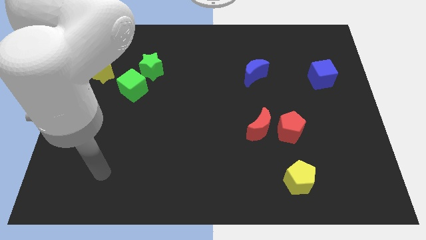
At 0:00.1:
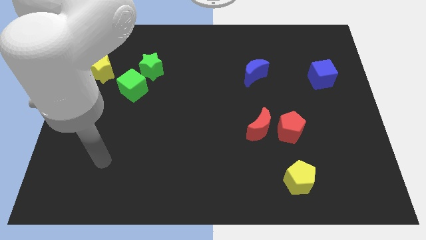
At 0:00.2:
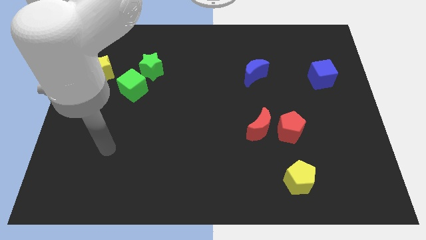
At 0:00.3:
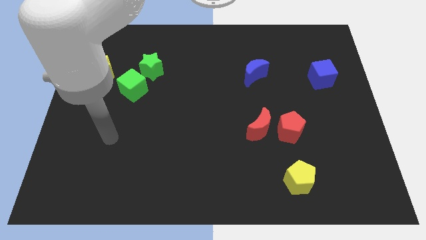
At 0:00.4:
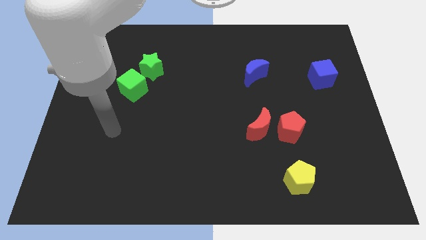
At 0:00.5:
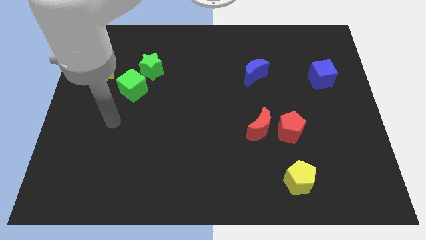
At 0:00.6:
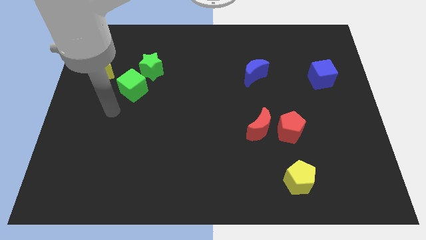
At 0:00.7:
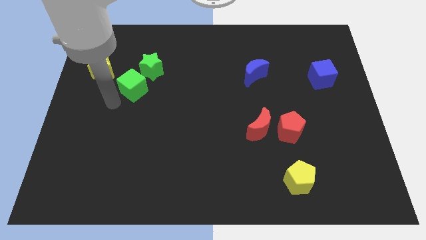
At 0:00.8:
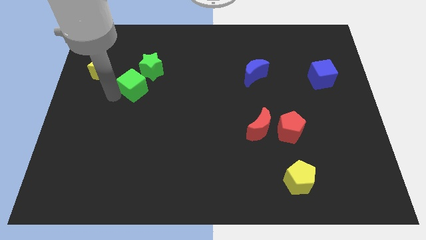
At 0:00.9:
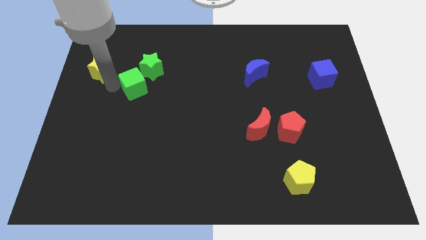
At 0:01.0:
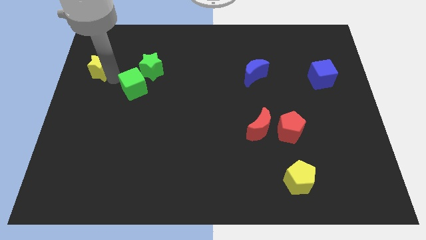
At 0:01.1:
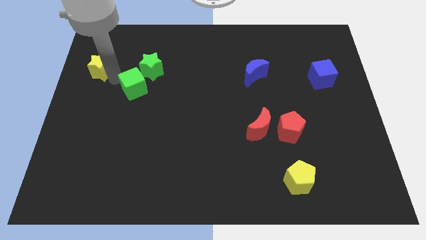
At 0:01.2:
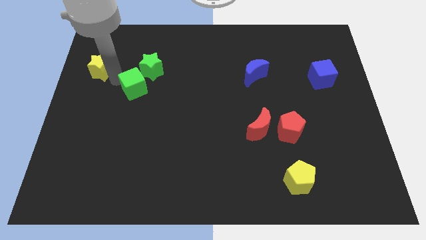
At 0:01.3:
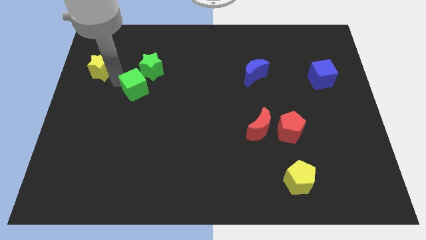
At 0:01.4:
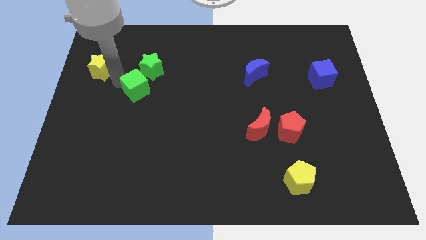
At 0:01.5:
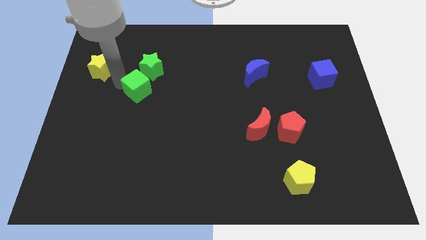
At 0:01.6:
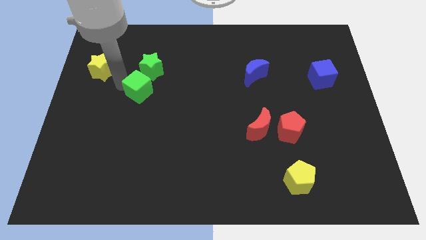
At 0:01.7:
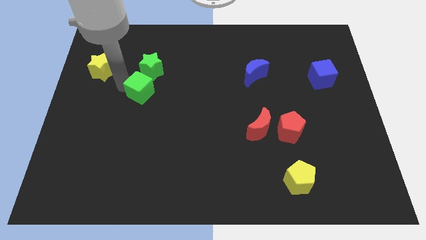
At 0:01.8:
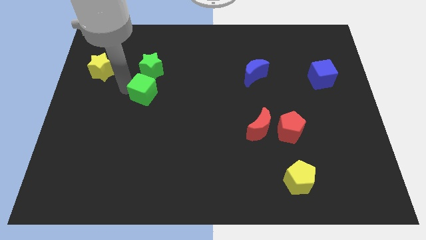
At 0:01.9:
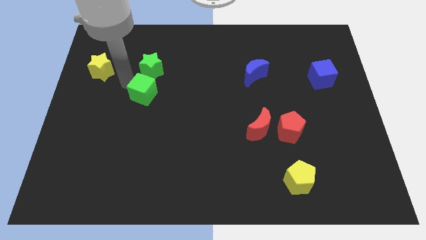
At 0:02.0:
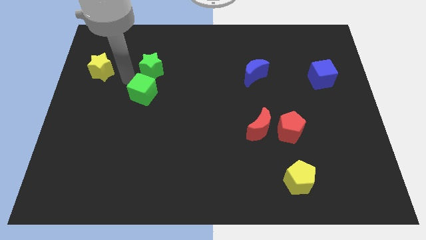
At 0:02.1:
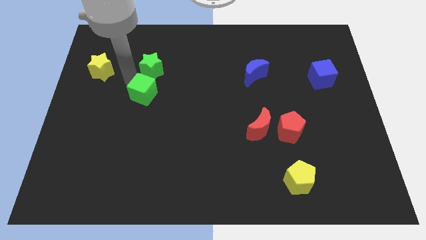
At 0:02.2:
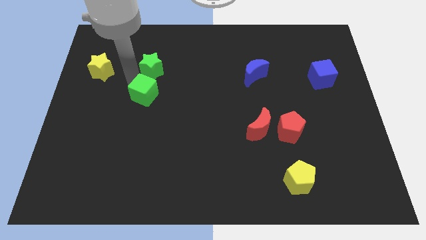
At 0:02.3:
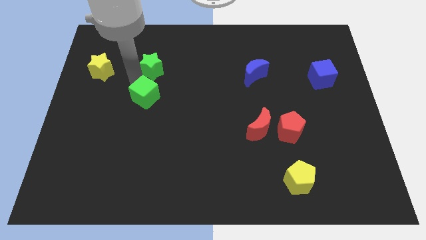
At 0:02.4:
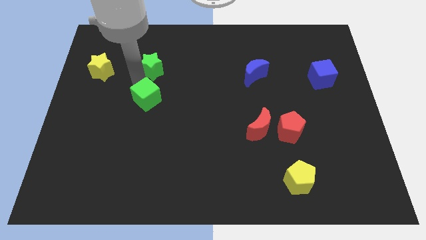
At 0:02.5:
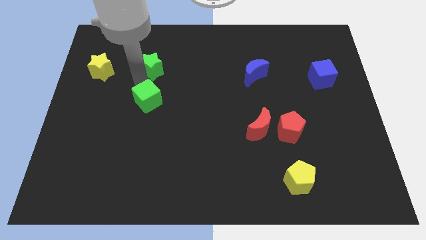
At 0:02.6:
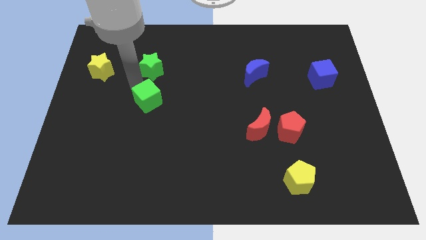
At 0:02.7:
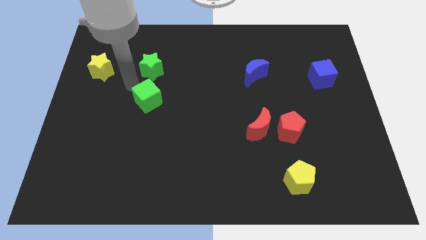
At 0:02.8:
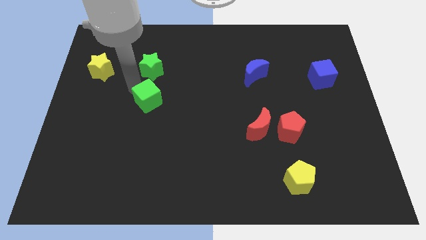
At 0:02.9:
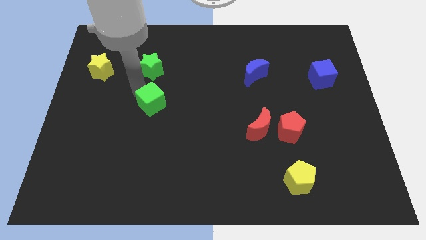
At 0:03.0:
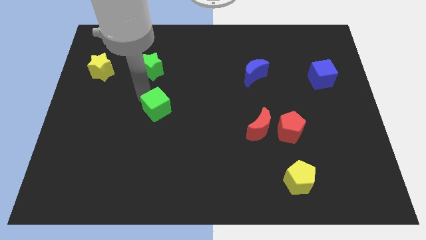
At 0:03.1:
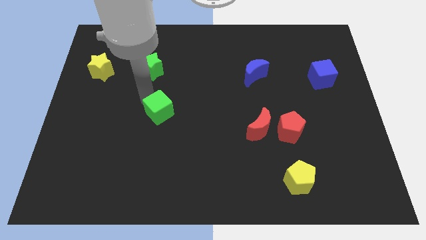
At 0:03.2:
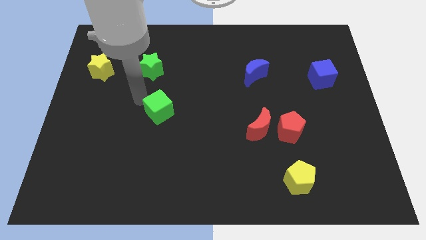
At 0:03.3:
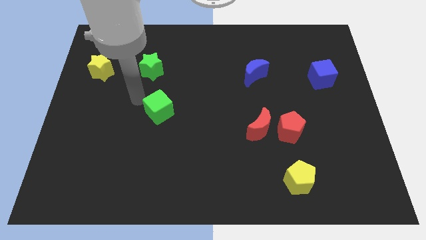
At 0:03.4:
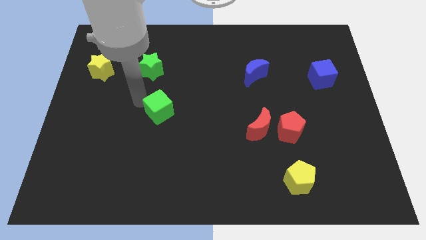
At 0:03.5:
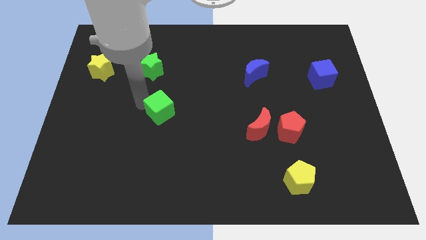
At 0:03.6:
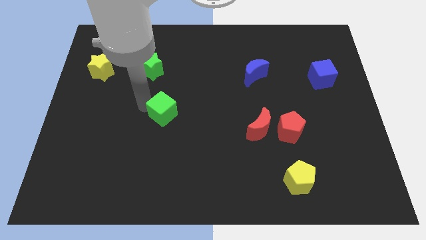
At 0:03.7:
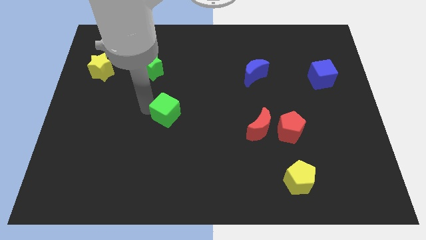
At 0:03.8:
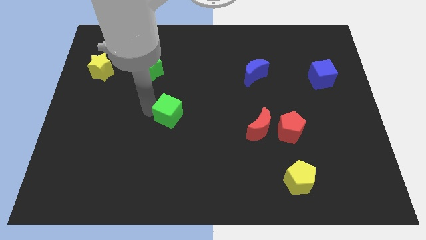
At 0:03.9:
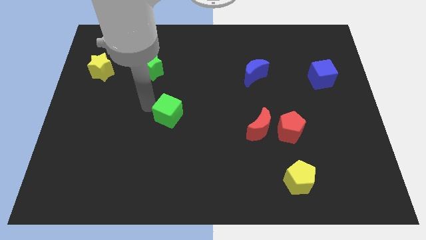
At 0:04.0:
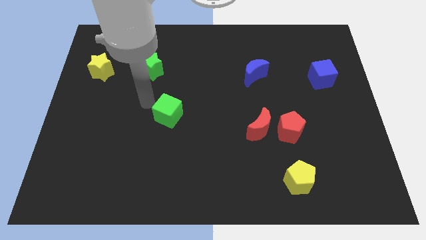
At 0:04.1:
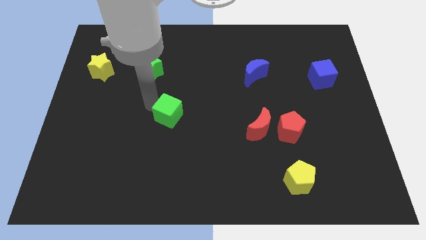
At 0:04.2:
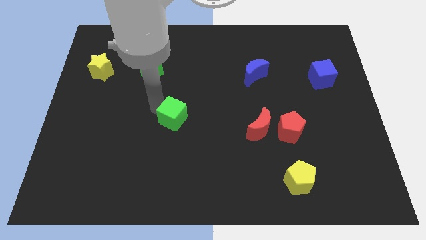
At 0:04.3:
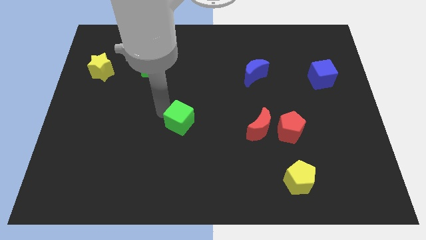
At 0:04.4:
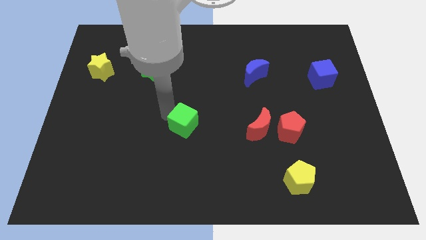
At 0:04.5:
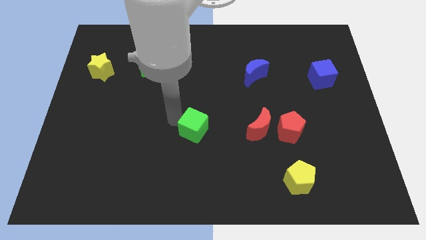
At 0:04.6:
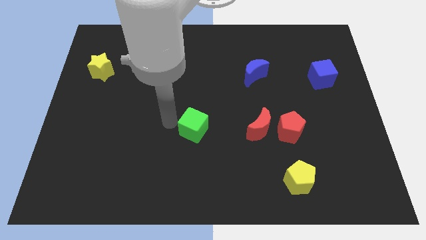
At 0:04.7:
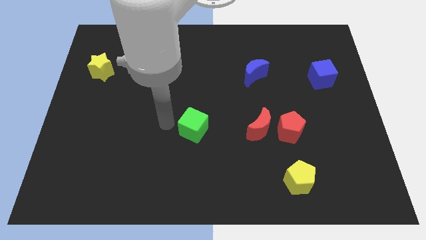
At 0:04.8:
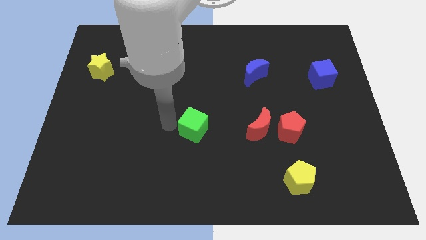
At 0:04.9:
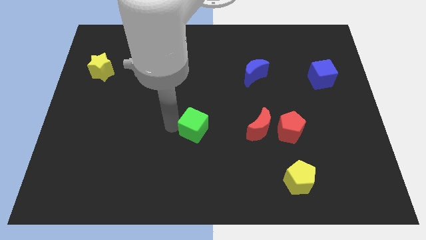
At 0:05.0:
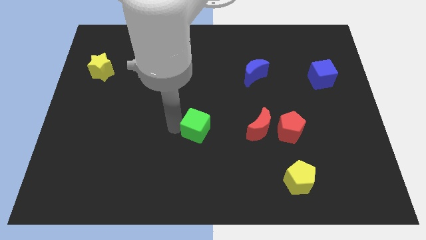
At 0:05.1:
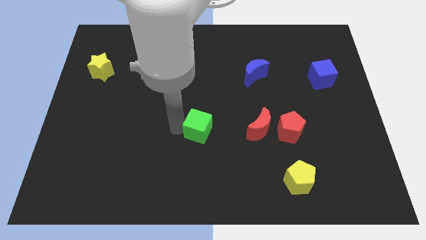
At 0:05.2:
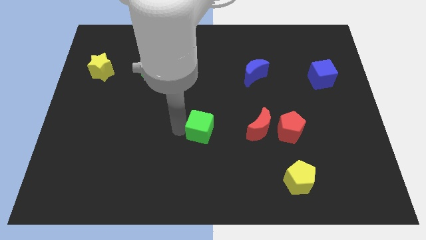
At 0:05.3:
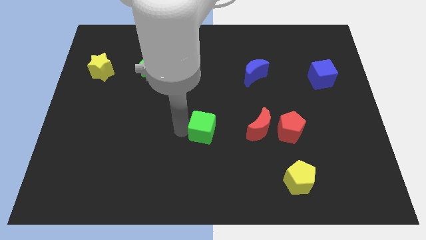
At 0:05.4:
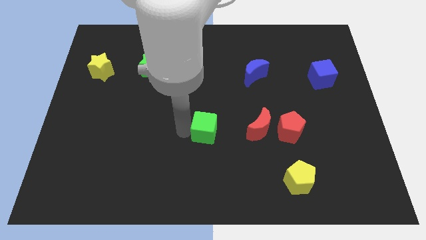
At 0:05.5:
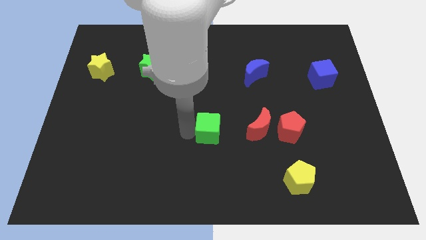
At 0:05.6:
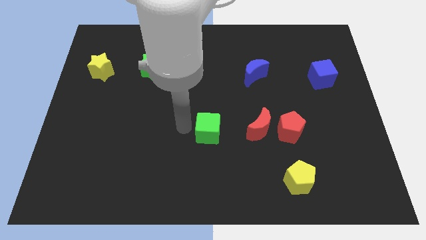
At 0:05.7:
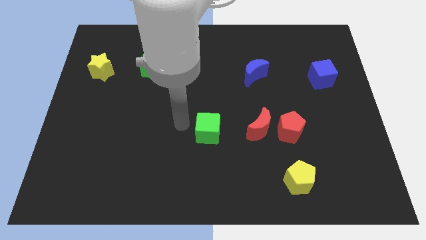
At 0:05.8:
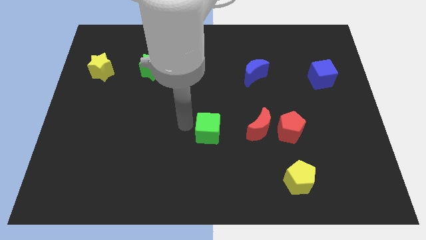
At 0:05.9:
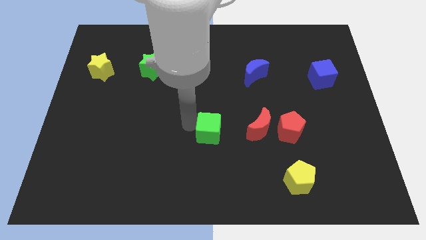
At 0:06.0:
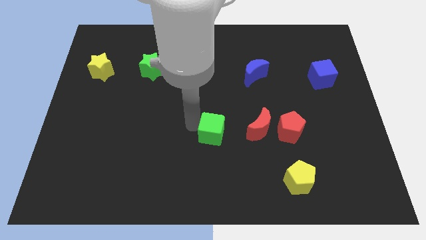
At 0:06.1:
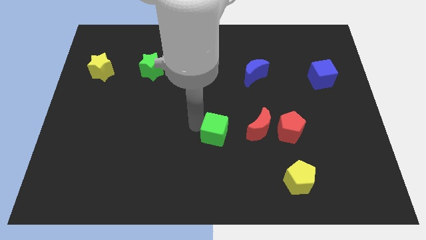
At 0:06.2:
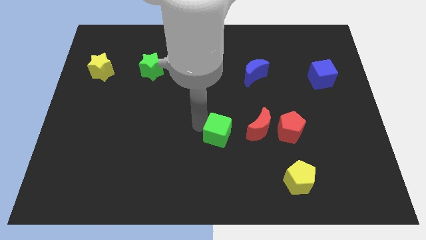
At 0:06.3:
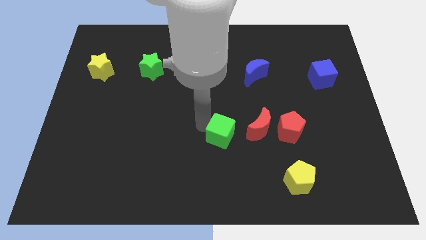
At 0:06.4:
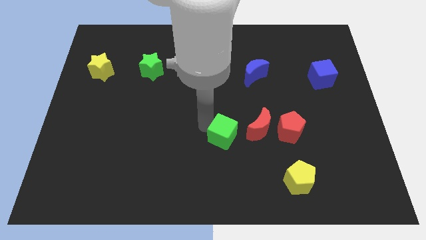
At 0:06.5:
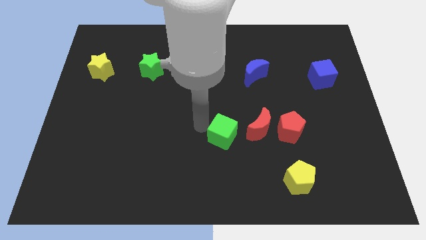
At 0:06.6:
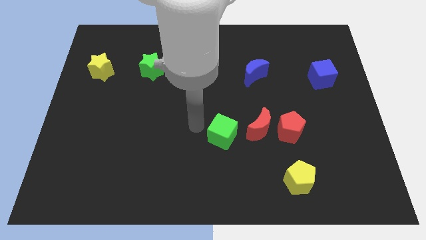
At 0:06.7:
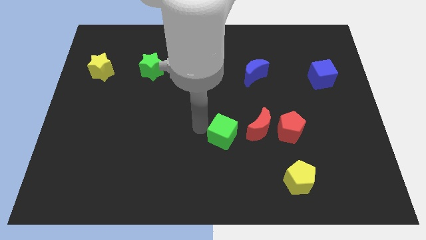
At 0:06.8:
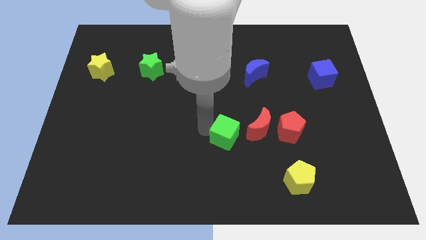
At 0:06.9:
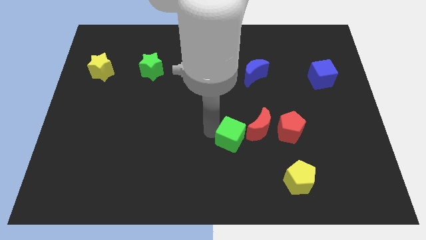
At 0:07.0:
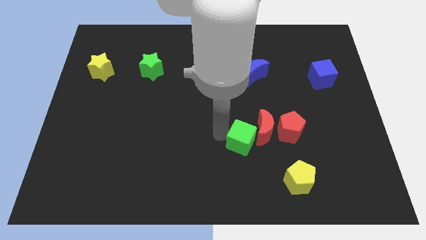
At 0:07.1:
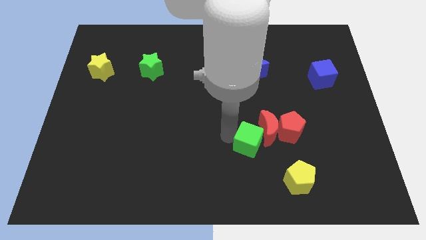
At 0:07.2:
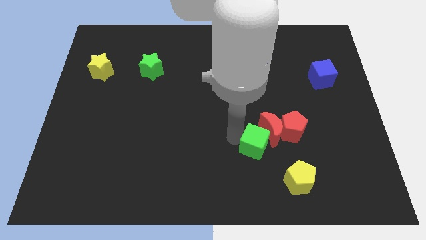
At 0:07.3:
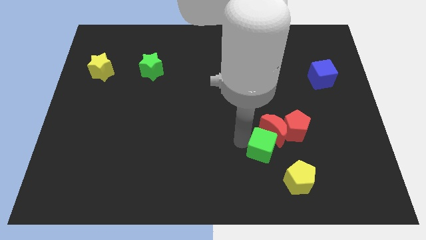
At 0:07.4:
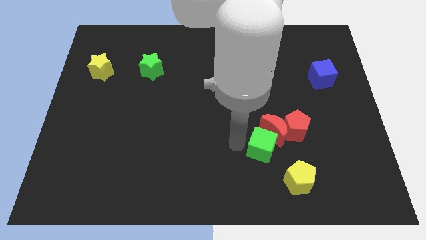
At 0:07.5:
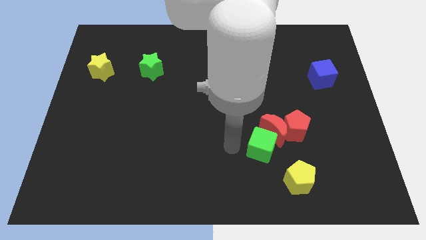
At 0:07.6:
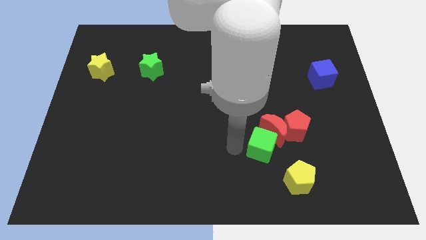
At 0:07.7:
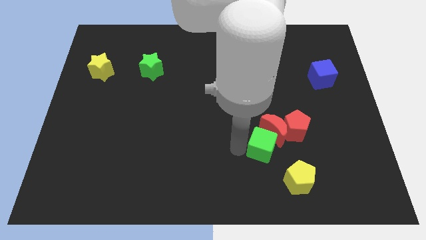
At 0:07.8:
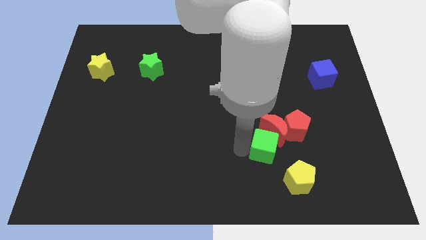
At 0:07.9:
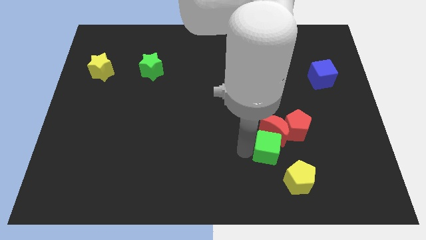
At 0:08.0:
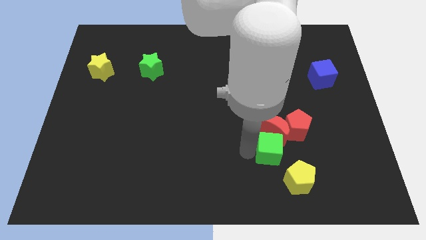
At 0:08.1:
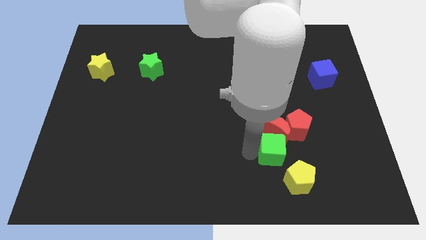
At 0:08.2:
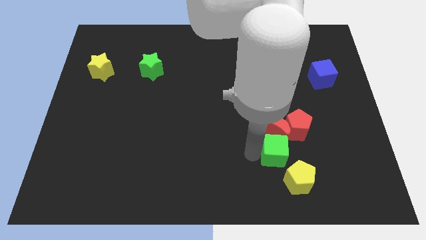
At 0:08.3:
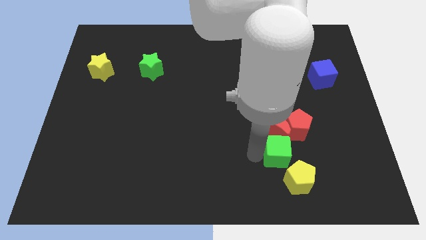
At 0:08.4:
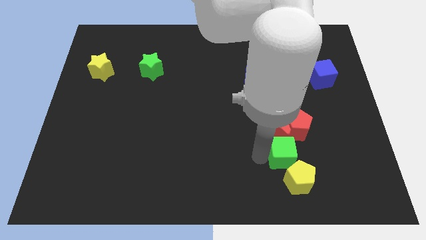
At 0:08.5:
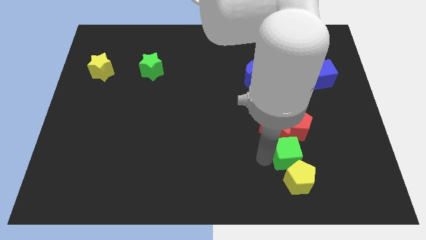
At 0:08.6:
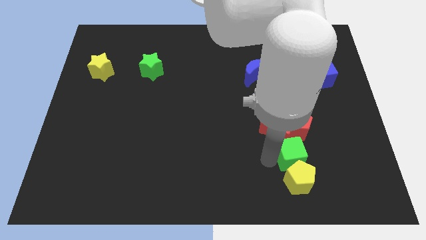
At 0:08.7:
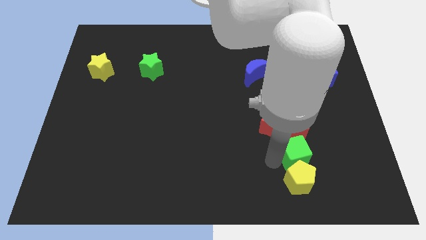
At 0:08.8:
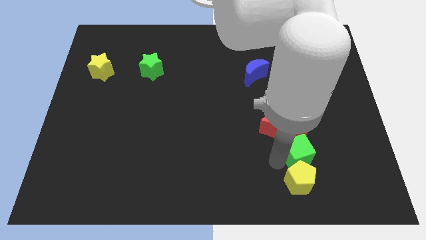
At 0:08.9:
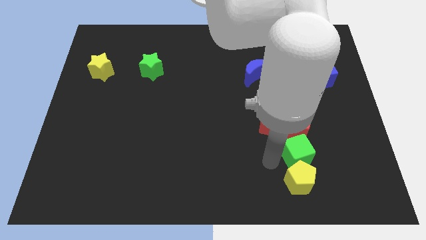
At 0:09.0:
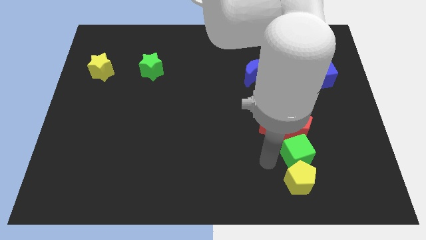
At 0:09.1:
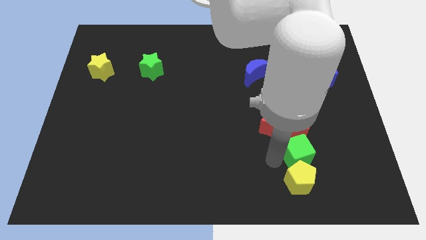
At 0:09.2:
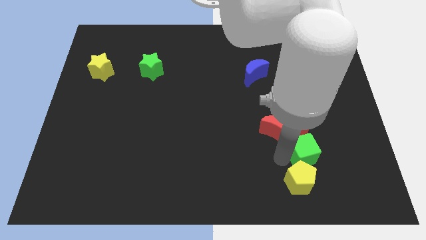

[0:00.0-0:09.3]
slide the green cube to the bottom right side of the red pentagon
